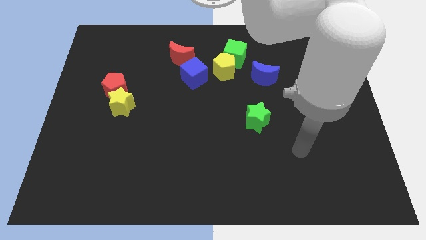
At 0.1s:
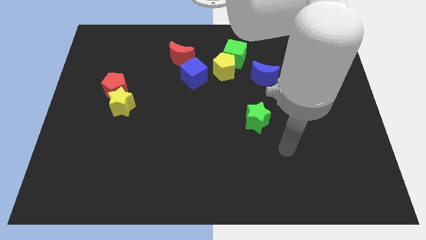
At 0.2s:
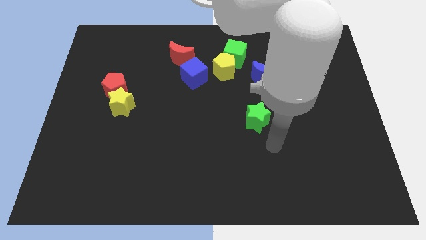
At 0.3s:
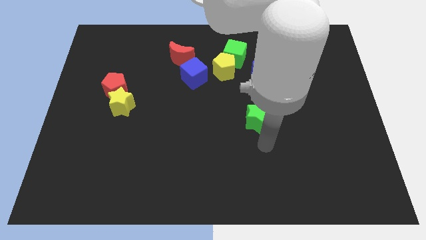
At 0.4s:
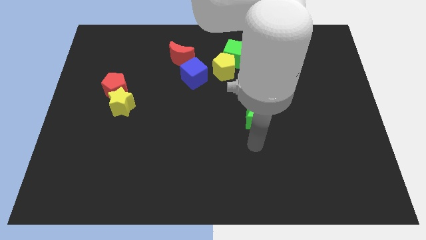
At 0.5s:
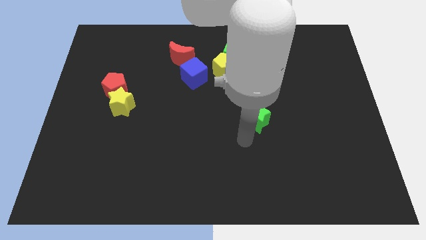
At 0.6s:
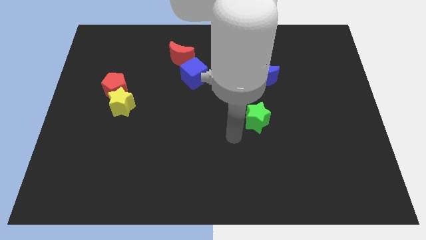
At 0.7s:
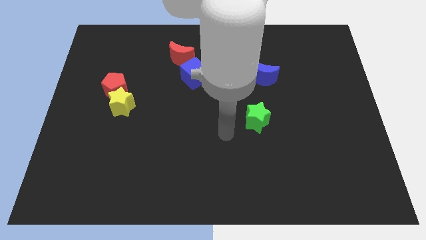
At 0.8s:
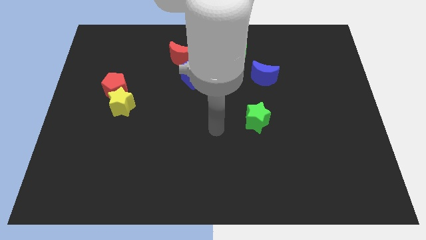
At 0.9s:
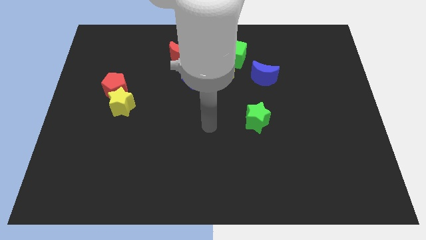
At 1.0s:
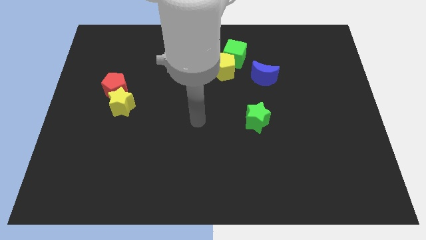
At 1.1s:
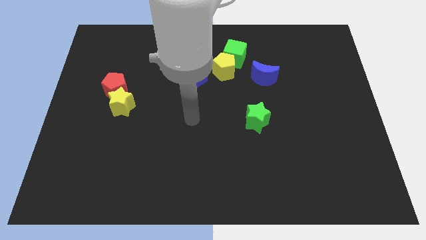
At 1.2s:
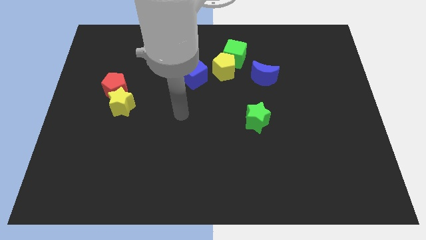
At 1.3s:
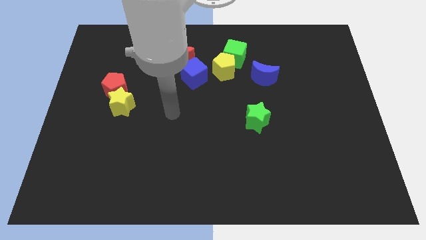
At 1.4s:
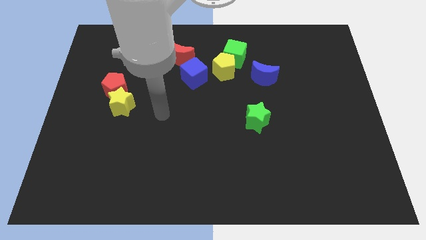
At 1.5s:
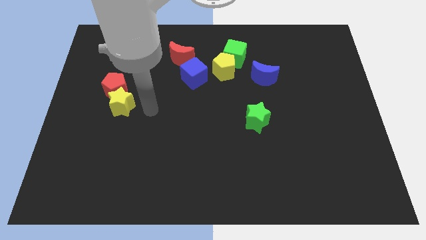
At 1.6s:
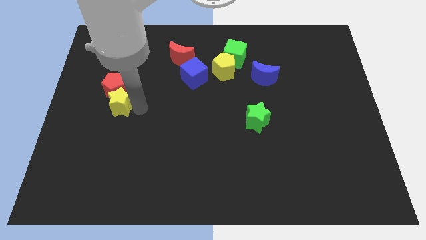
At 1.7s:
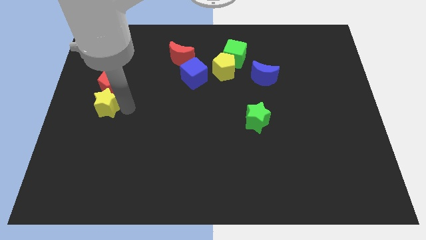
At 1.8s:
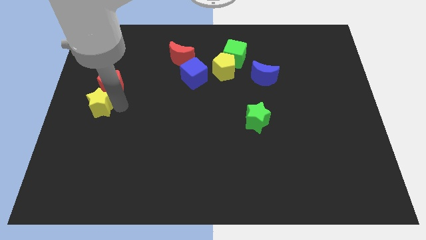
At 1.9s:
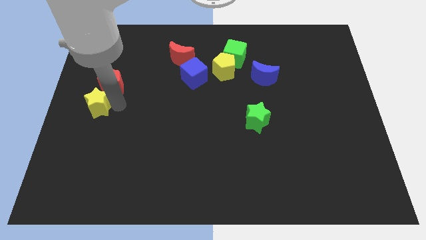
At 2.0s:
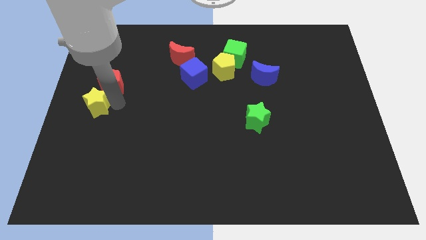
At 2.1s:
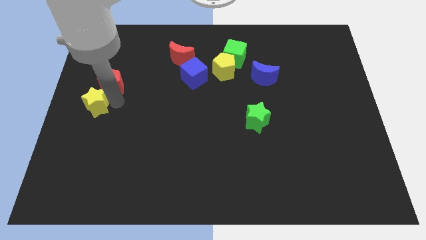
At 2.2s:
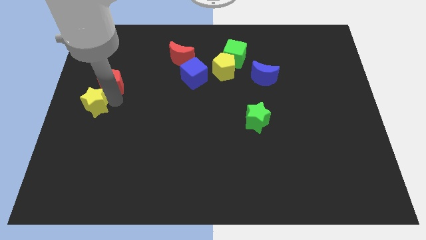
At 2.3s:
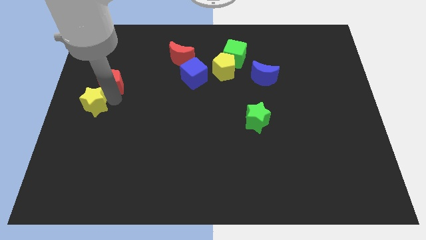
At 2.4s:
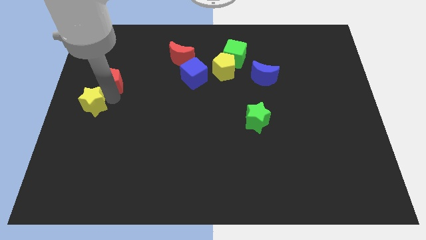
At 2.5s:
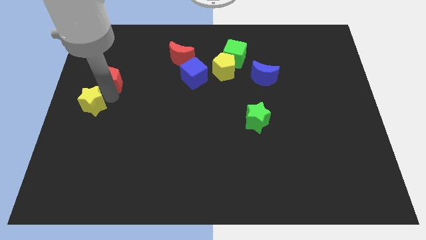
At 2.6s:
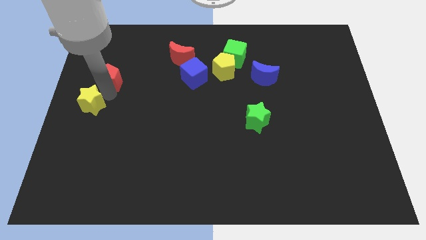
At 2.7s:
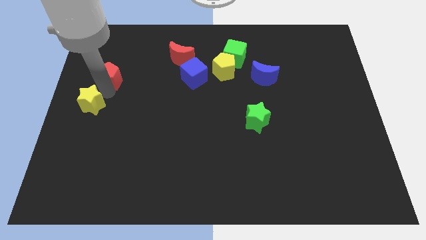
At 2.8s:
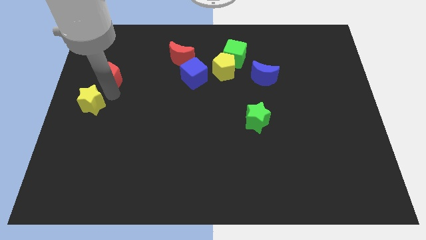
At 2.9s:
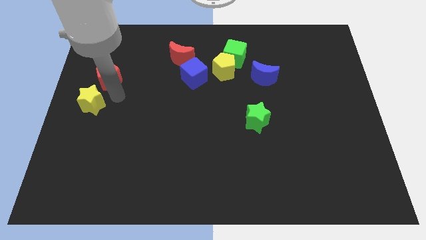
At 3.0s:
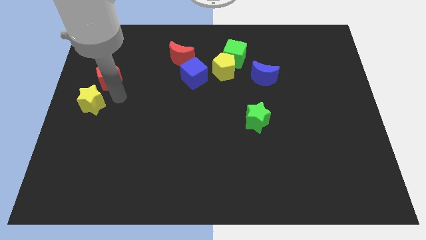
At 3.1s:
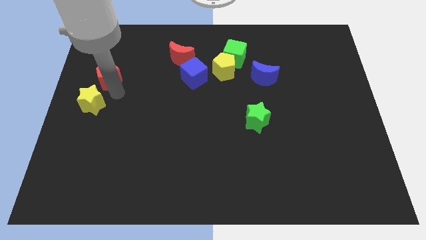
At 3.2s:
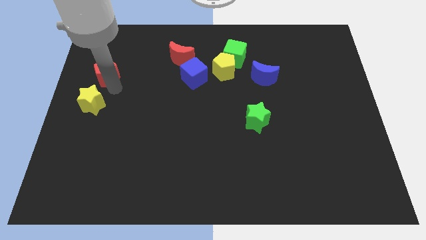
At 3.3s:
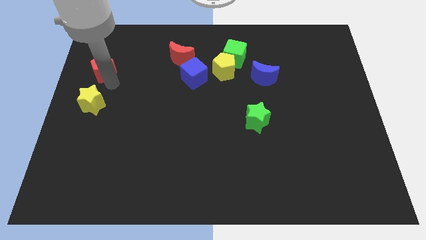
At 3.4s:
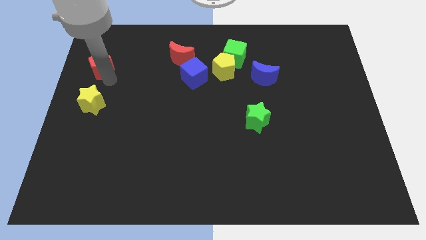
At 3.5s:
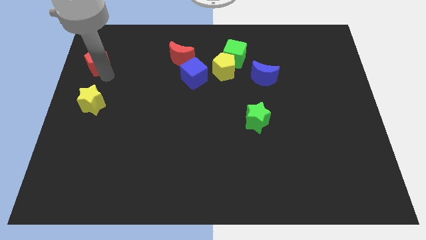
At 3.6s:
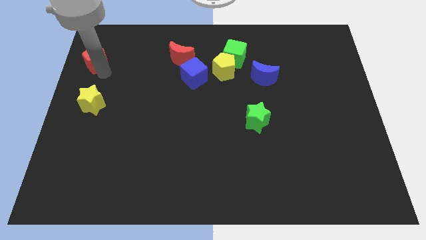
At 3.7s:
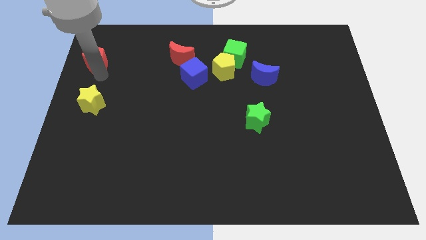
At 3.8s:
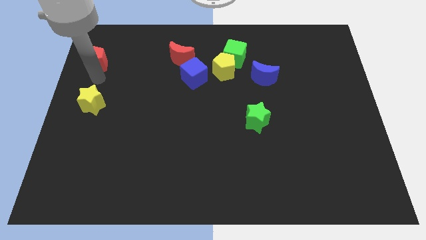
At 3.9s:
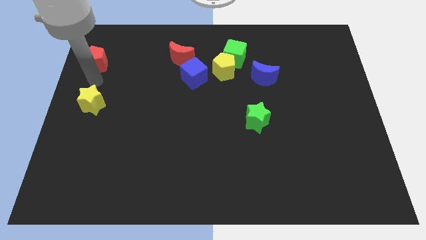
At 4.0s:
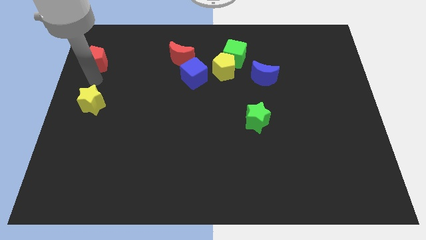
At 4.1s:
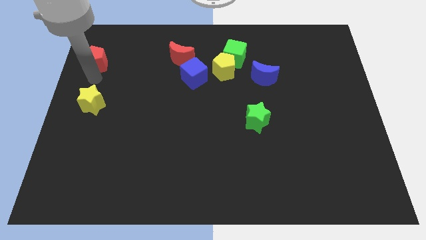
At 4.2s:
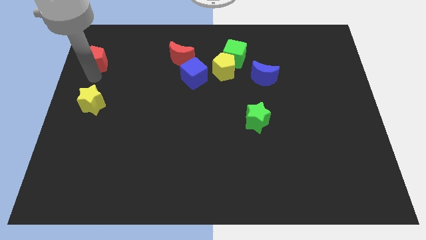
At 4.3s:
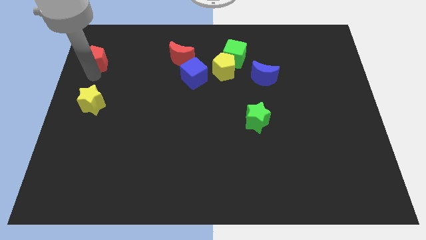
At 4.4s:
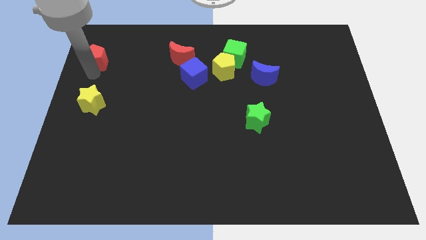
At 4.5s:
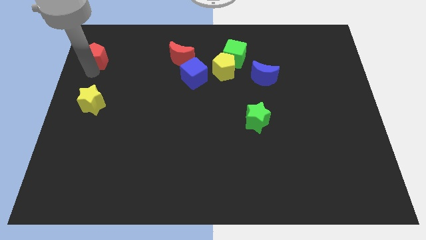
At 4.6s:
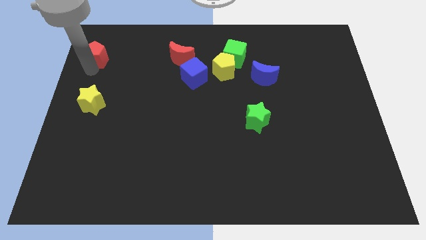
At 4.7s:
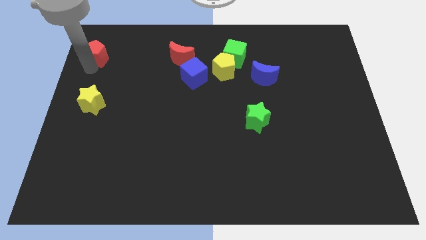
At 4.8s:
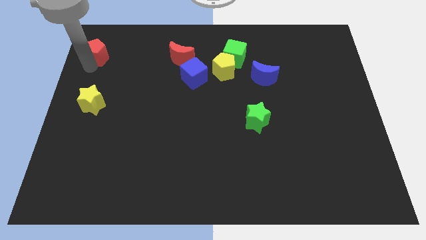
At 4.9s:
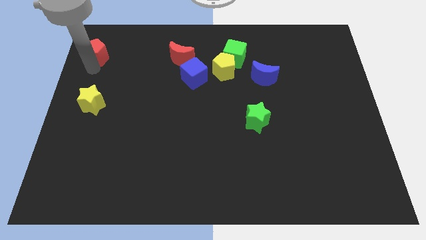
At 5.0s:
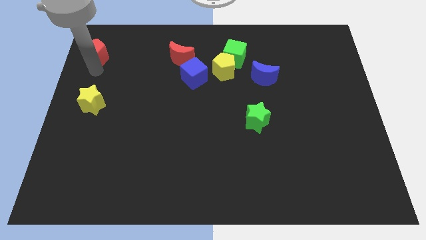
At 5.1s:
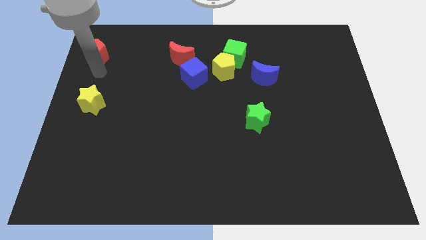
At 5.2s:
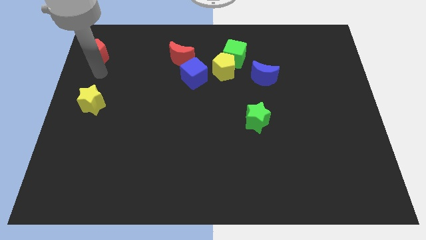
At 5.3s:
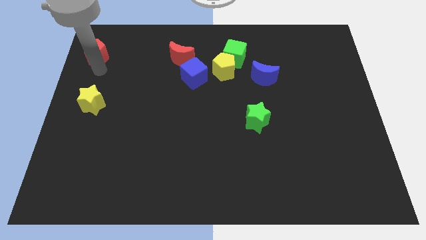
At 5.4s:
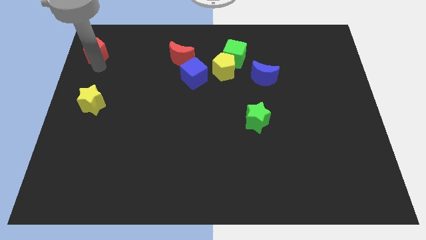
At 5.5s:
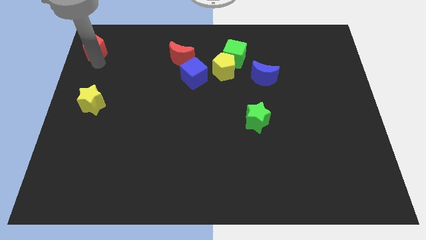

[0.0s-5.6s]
push the red pentagon to the top left of the board
